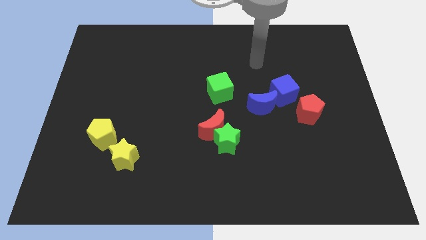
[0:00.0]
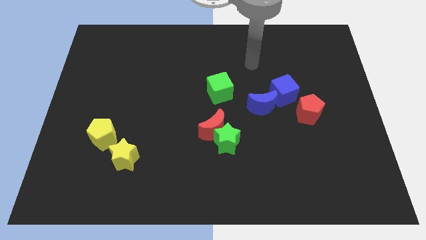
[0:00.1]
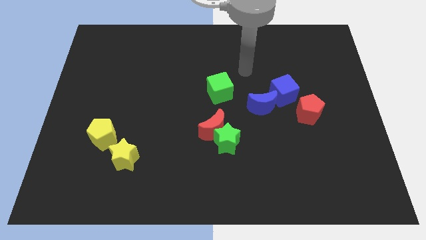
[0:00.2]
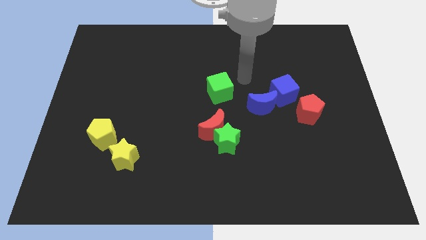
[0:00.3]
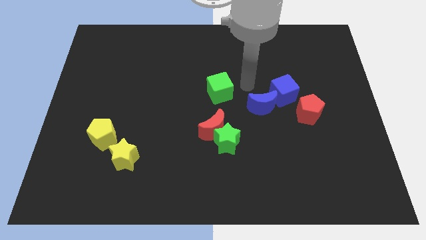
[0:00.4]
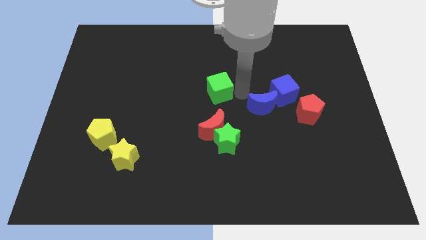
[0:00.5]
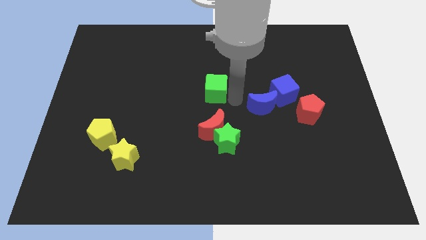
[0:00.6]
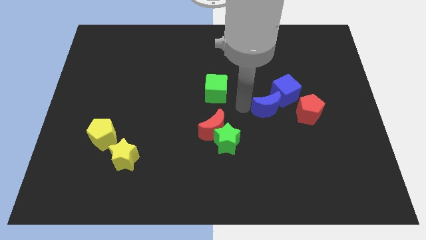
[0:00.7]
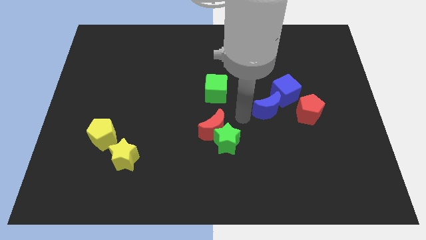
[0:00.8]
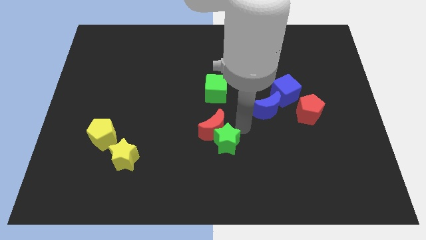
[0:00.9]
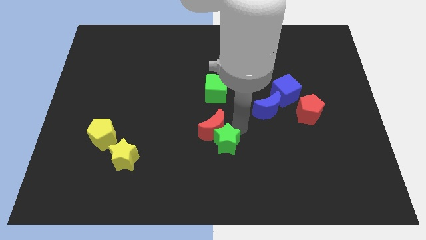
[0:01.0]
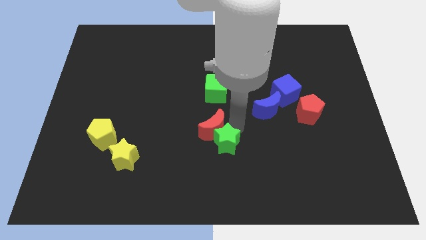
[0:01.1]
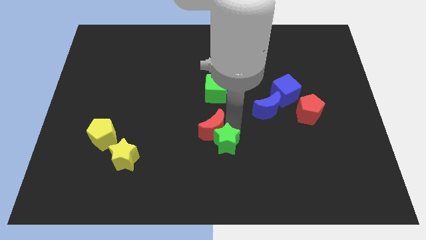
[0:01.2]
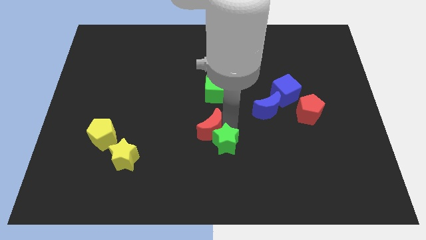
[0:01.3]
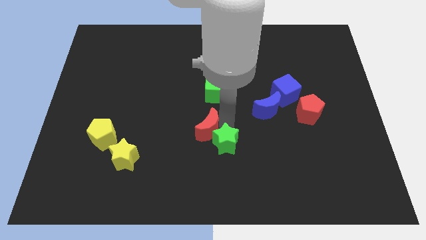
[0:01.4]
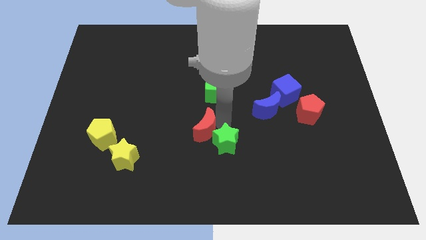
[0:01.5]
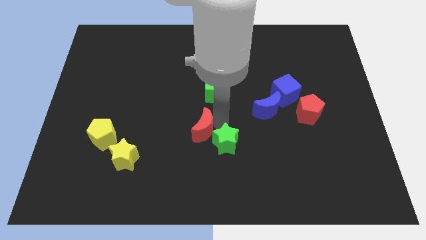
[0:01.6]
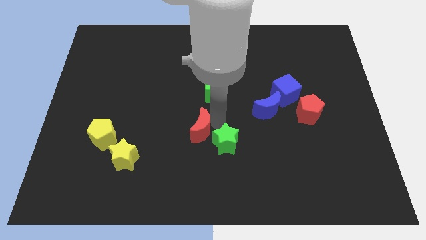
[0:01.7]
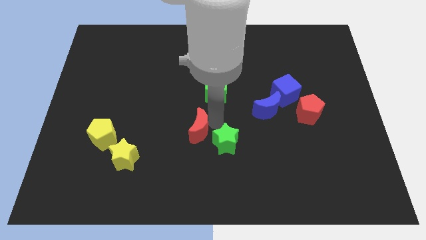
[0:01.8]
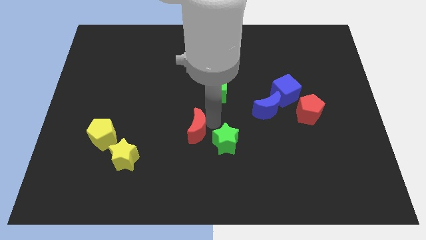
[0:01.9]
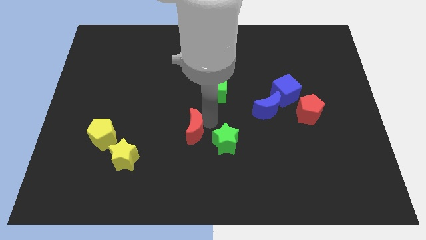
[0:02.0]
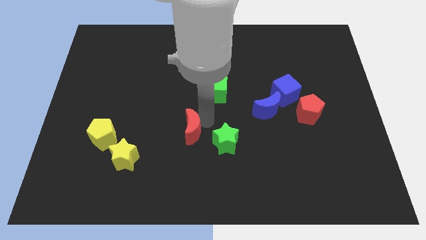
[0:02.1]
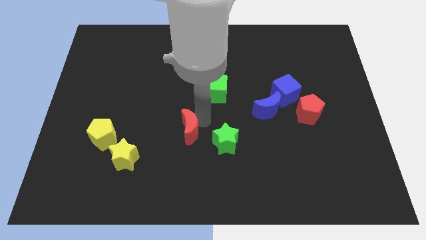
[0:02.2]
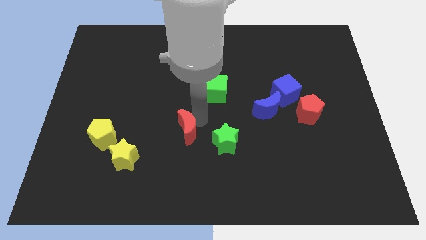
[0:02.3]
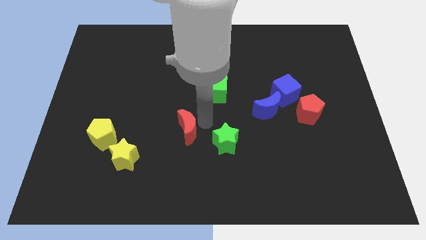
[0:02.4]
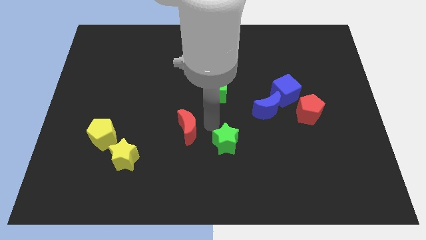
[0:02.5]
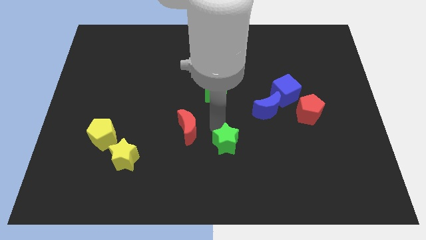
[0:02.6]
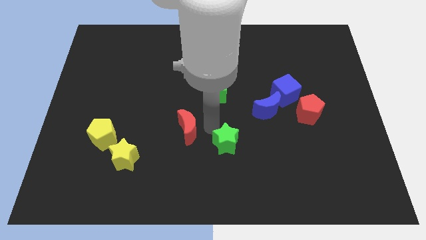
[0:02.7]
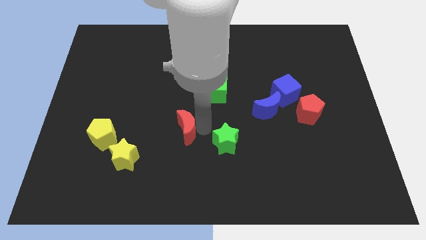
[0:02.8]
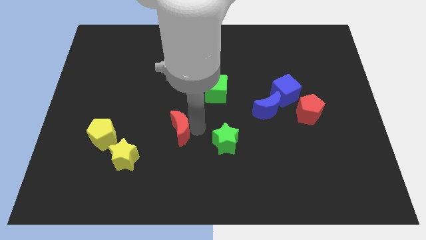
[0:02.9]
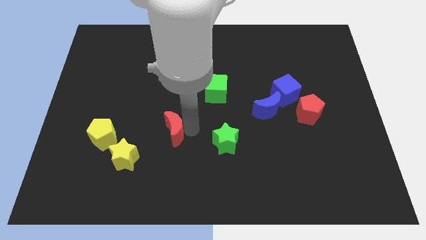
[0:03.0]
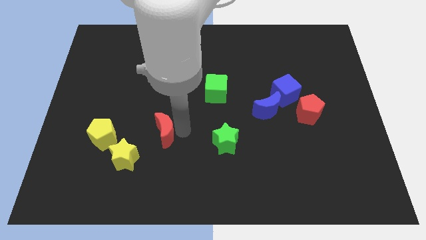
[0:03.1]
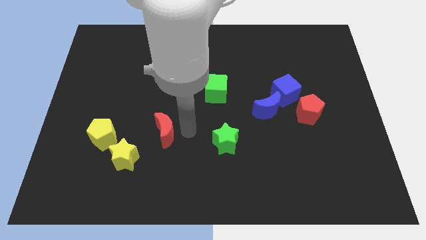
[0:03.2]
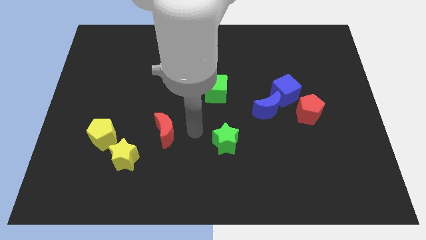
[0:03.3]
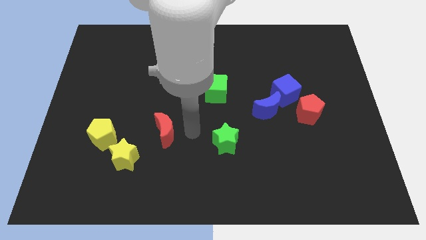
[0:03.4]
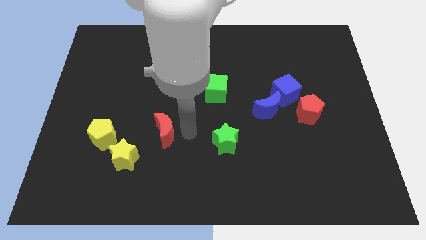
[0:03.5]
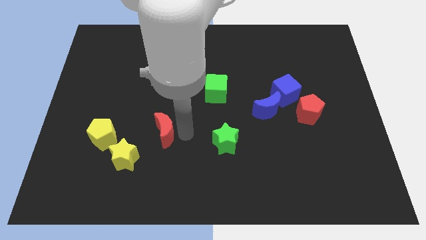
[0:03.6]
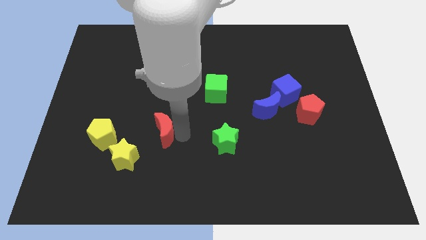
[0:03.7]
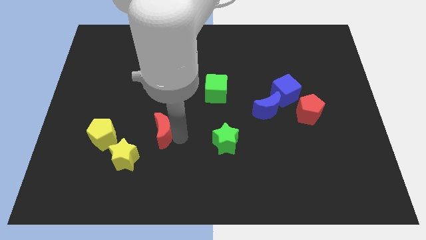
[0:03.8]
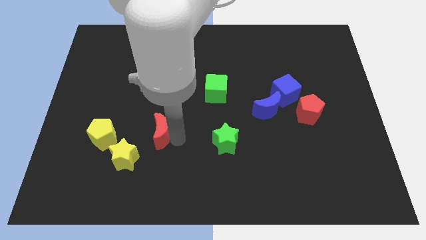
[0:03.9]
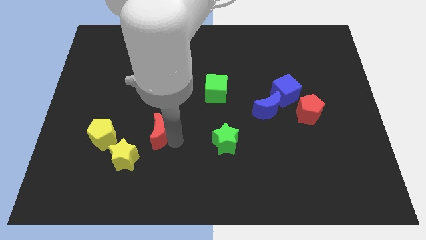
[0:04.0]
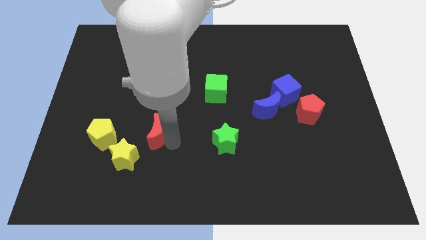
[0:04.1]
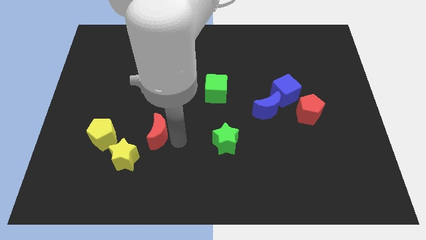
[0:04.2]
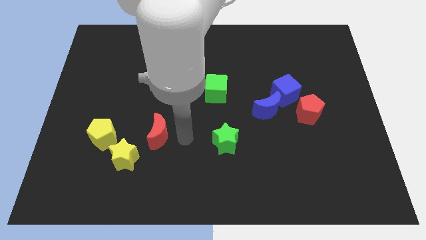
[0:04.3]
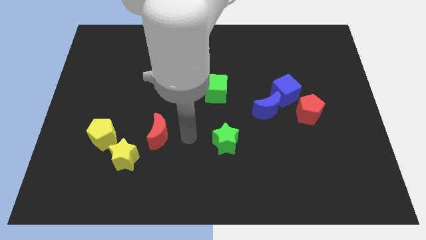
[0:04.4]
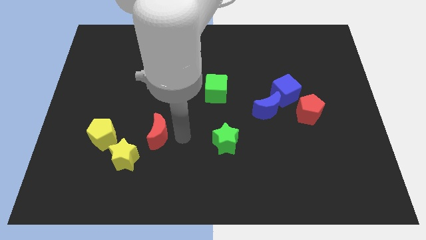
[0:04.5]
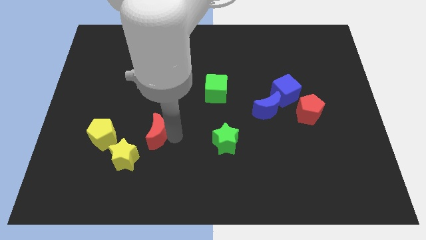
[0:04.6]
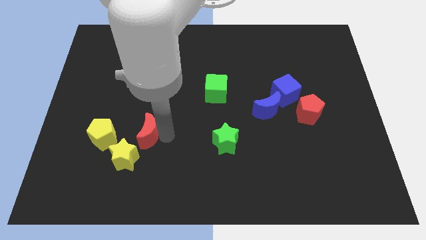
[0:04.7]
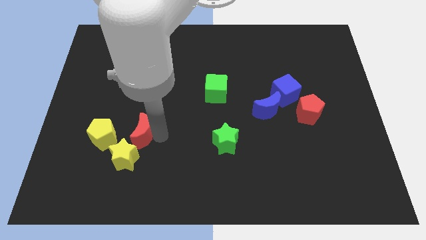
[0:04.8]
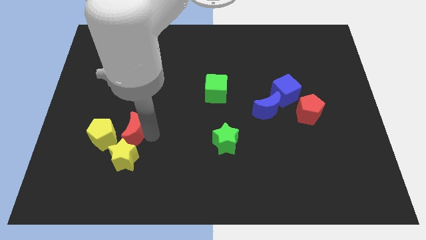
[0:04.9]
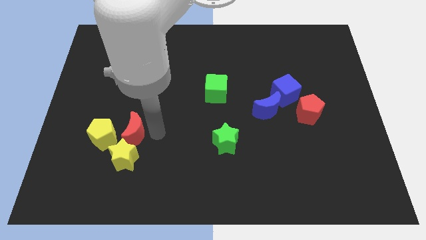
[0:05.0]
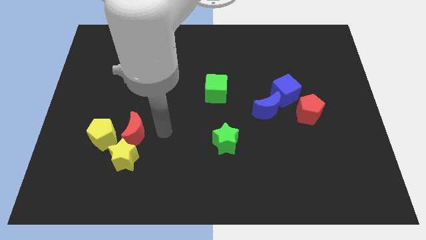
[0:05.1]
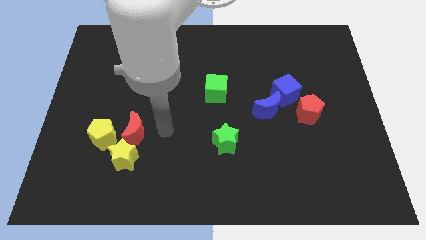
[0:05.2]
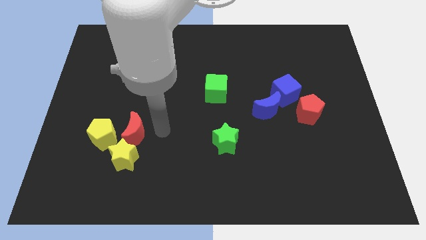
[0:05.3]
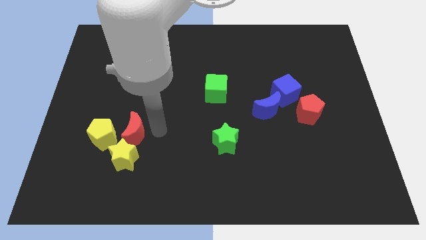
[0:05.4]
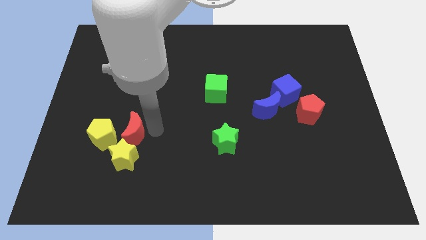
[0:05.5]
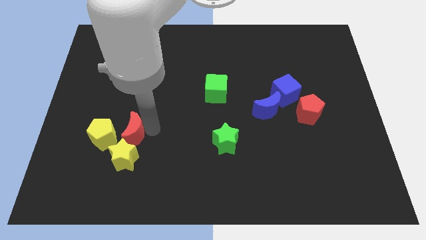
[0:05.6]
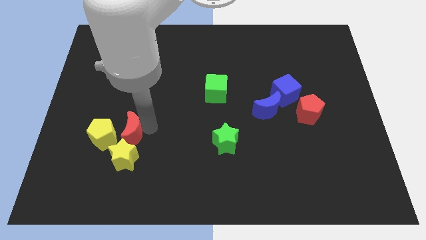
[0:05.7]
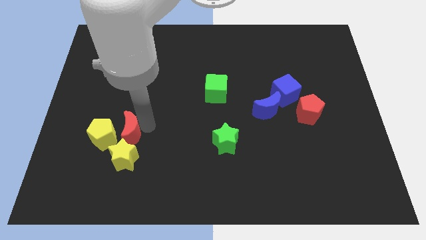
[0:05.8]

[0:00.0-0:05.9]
move the red moon to the yellow pentagon

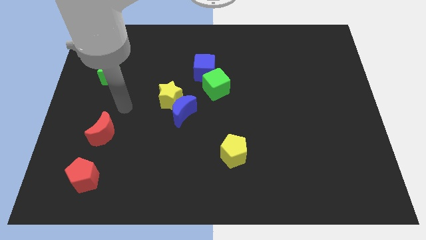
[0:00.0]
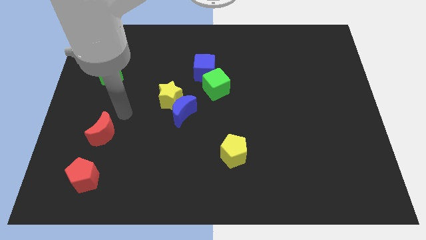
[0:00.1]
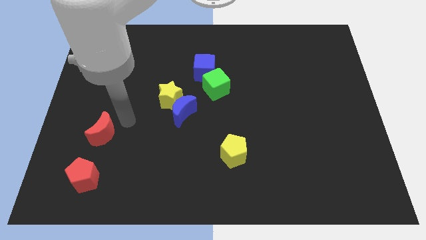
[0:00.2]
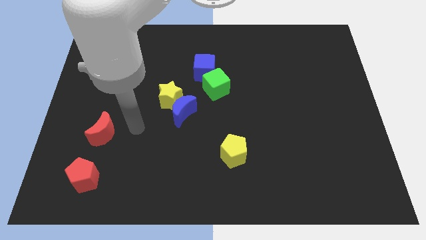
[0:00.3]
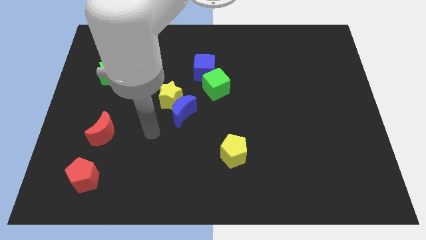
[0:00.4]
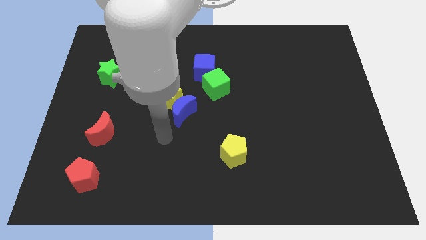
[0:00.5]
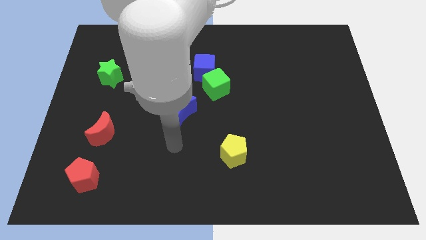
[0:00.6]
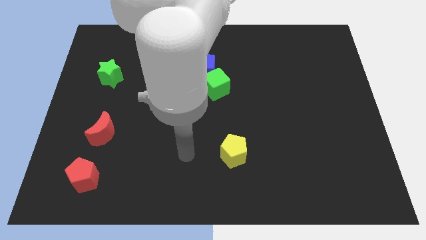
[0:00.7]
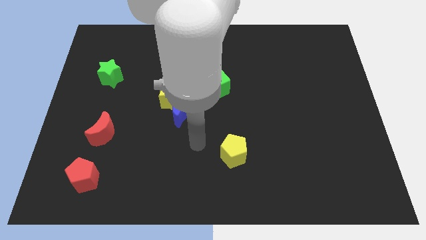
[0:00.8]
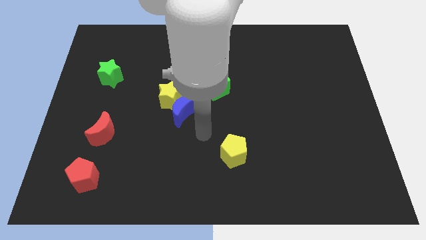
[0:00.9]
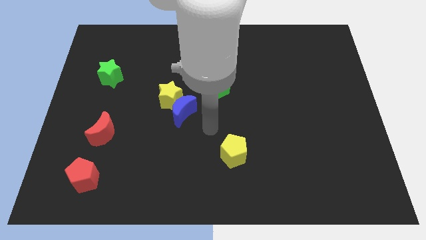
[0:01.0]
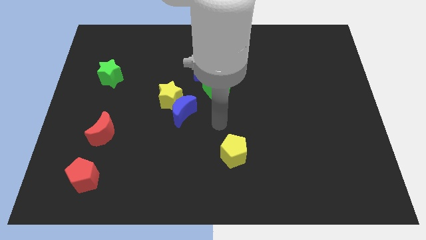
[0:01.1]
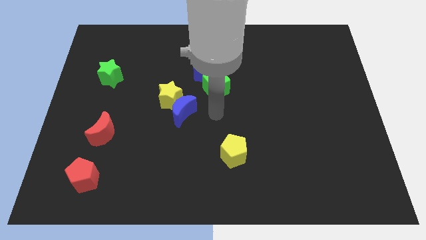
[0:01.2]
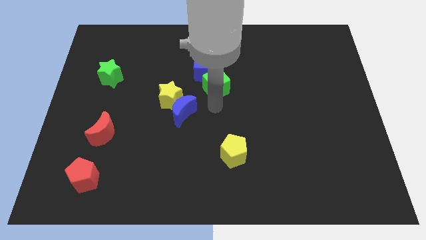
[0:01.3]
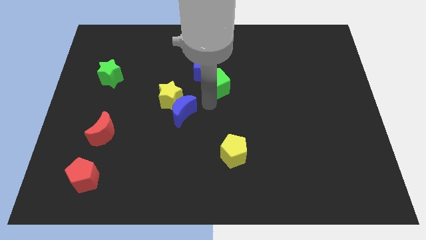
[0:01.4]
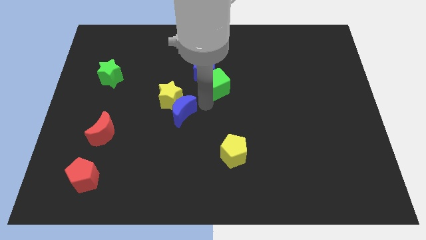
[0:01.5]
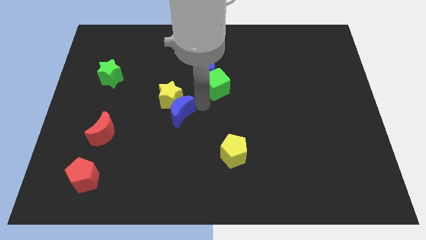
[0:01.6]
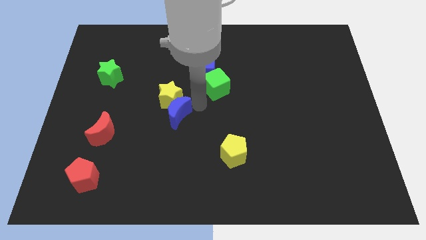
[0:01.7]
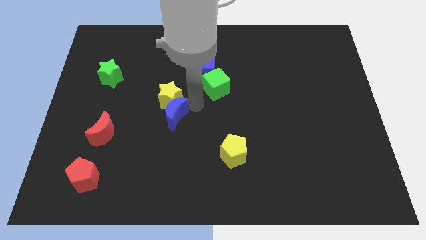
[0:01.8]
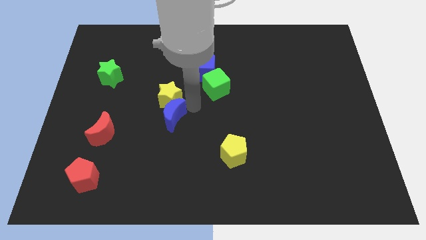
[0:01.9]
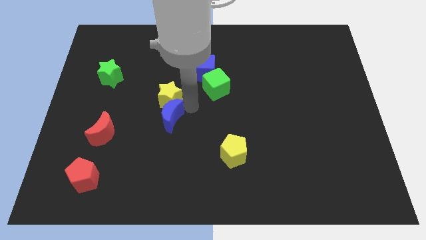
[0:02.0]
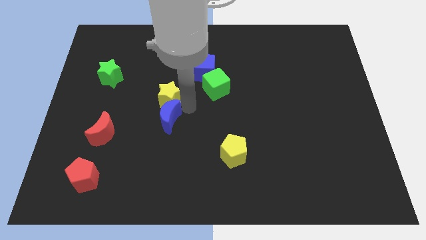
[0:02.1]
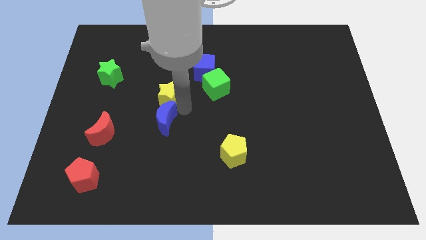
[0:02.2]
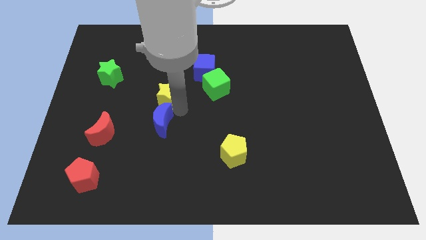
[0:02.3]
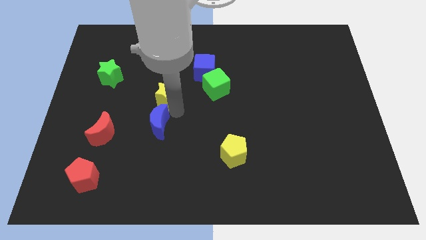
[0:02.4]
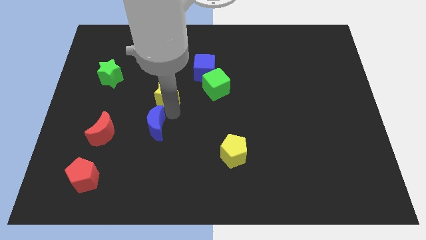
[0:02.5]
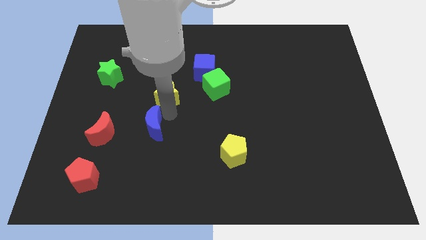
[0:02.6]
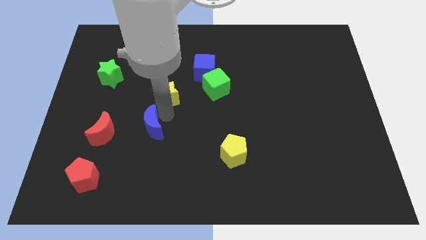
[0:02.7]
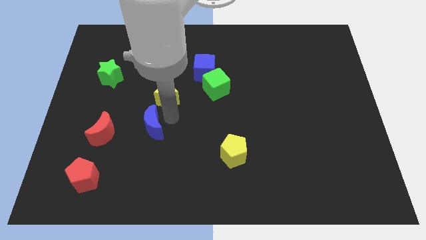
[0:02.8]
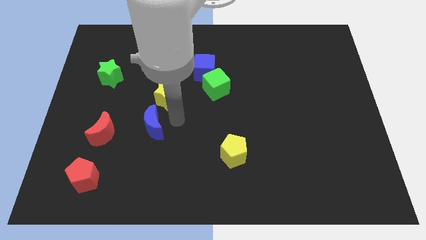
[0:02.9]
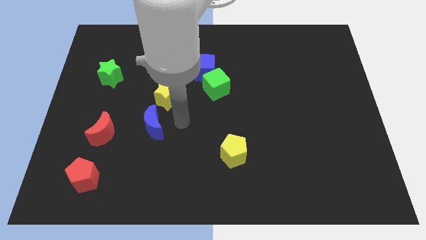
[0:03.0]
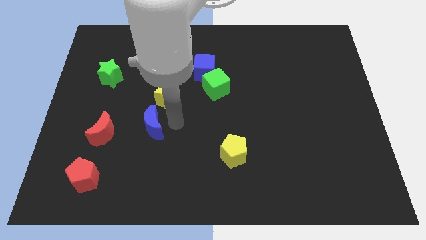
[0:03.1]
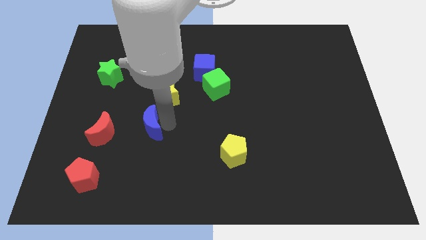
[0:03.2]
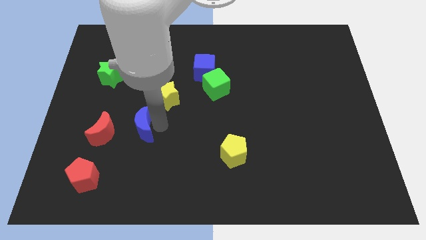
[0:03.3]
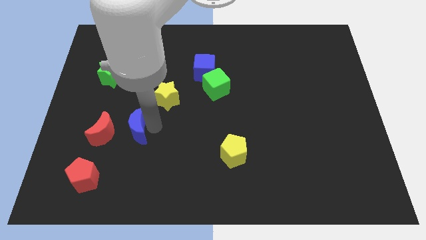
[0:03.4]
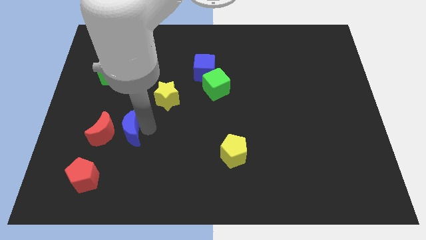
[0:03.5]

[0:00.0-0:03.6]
slide the blue moon close to the red moon
